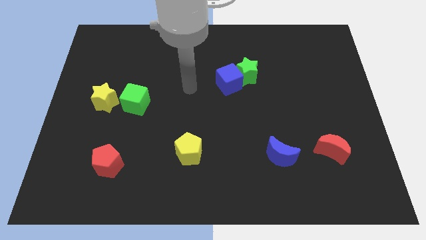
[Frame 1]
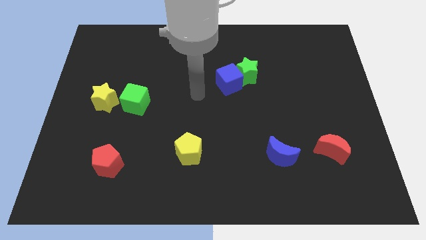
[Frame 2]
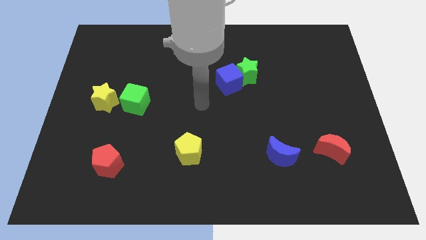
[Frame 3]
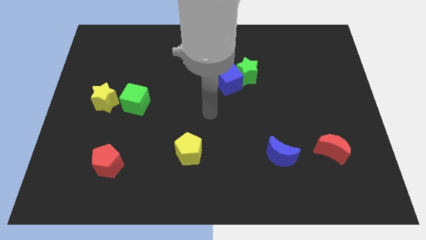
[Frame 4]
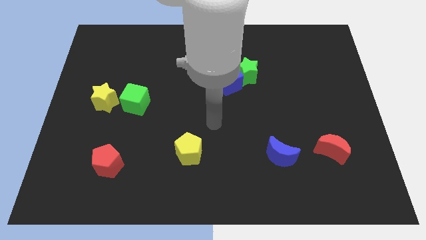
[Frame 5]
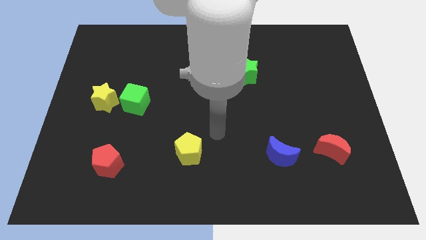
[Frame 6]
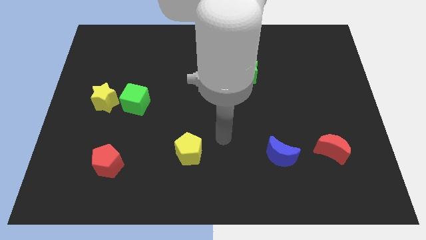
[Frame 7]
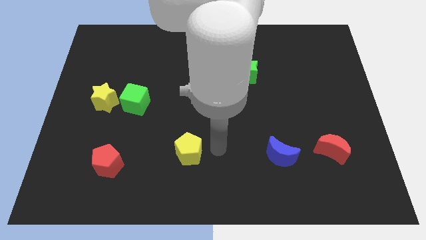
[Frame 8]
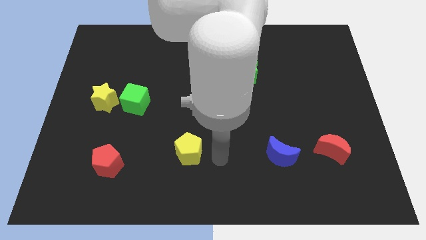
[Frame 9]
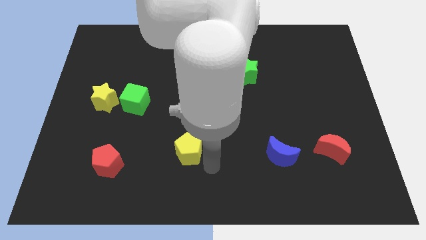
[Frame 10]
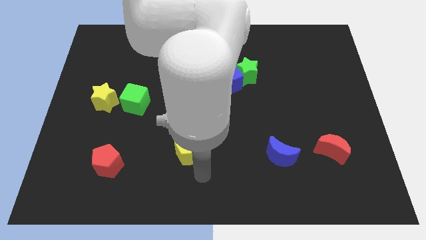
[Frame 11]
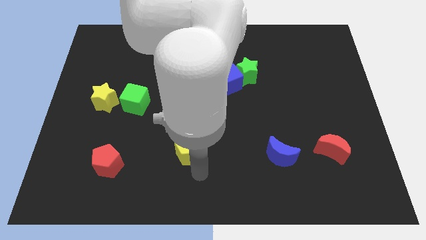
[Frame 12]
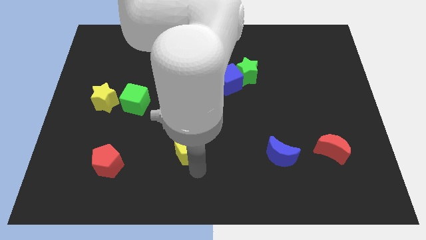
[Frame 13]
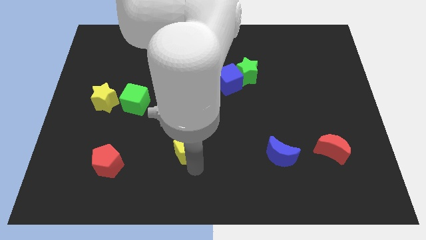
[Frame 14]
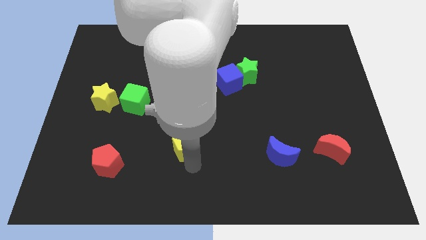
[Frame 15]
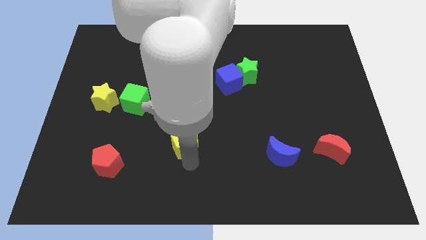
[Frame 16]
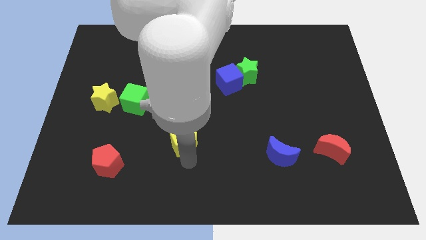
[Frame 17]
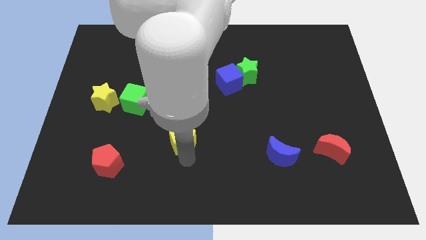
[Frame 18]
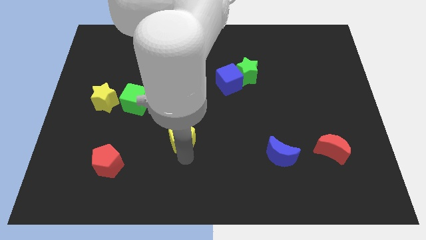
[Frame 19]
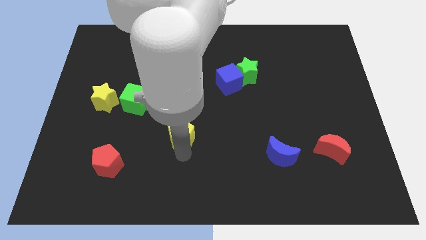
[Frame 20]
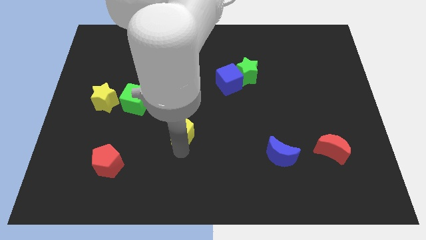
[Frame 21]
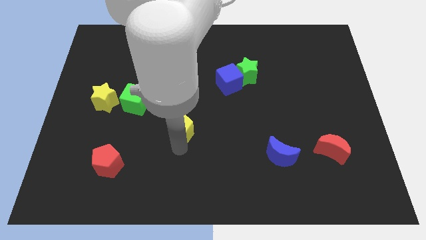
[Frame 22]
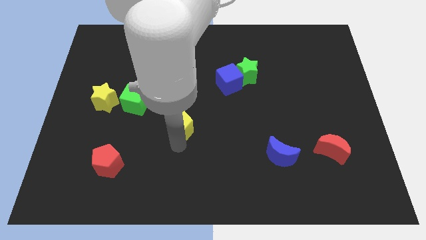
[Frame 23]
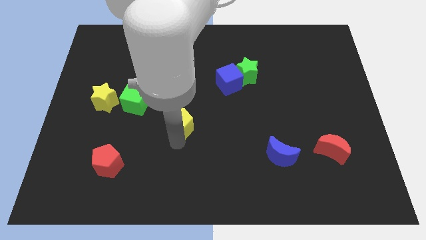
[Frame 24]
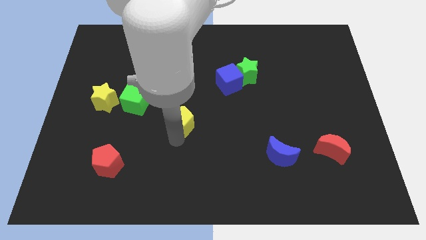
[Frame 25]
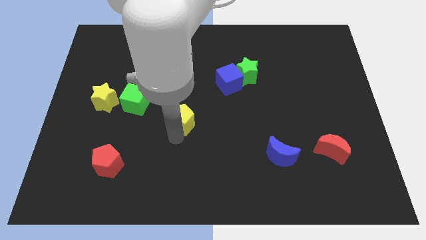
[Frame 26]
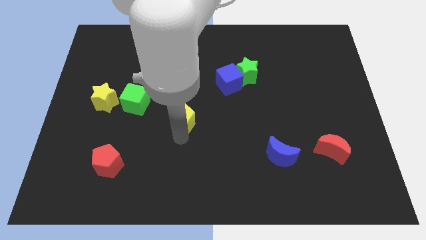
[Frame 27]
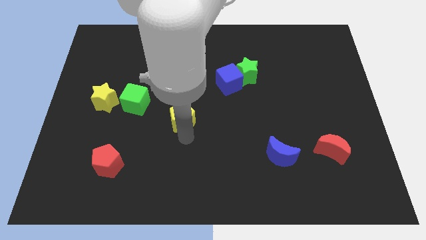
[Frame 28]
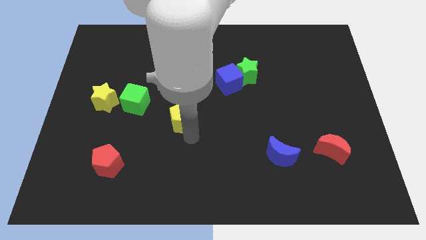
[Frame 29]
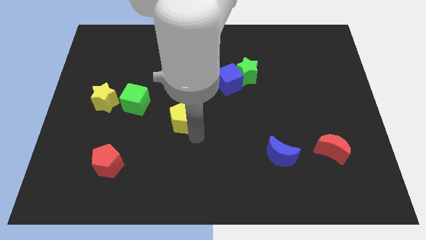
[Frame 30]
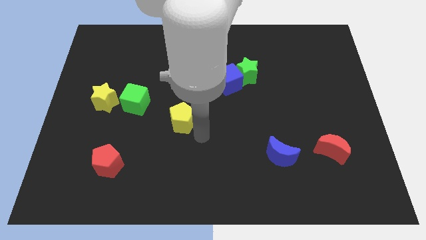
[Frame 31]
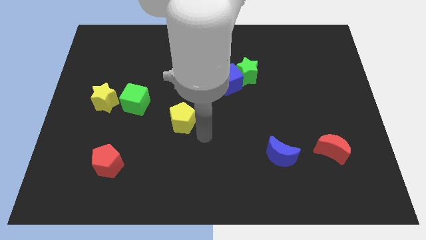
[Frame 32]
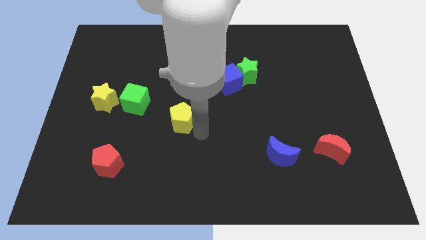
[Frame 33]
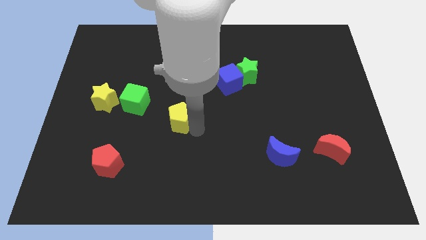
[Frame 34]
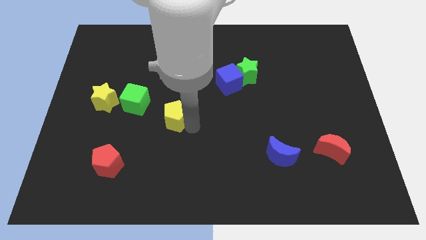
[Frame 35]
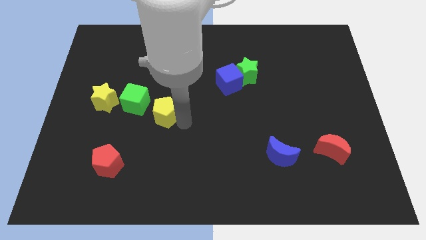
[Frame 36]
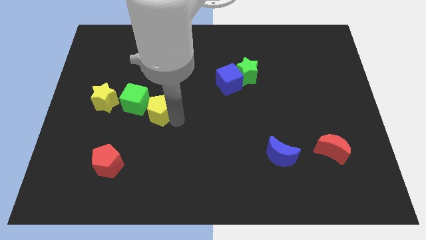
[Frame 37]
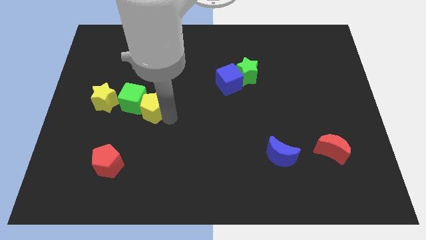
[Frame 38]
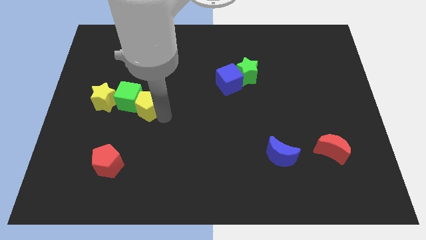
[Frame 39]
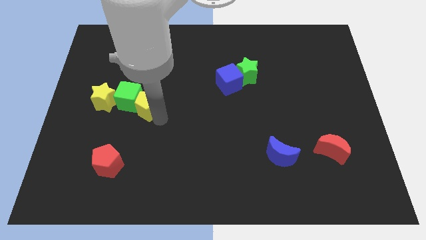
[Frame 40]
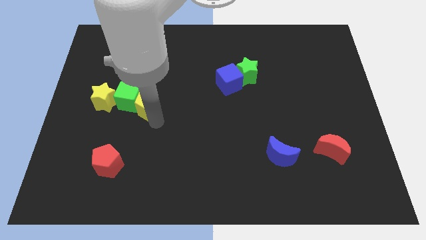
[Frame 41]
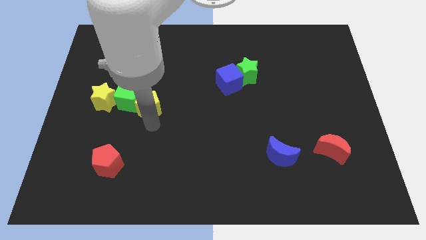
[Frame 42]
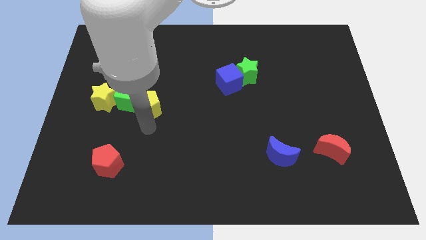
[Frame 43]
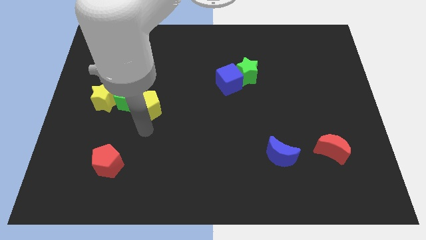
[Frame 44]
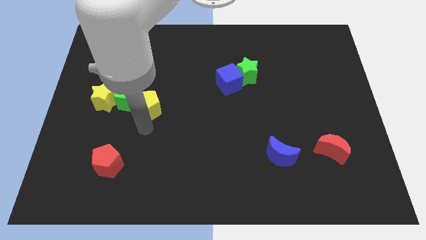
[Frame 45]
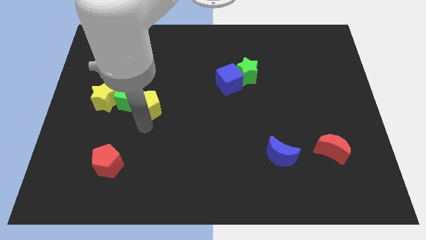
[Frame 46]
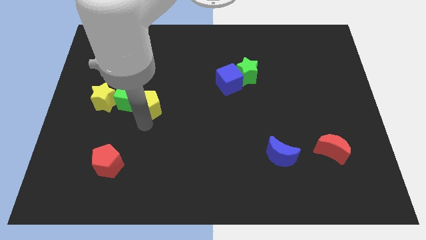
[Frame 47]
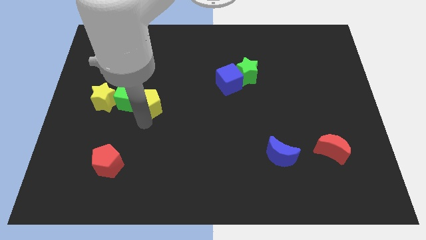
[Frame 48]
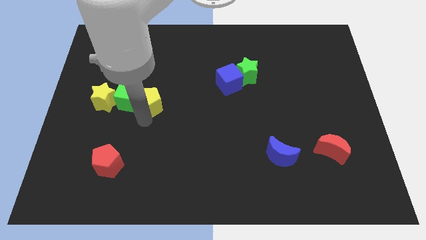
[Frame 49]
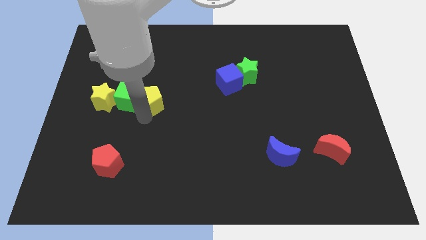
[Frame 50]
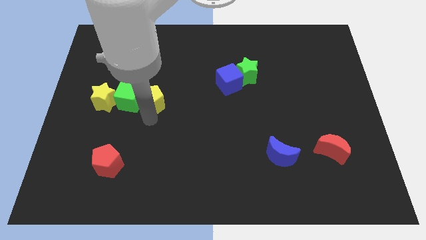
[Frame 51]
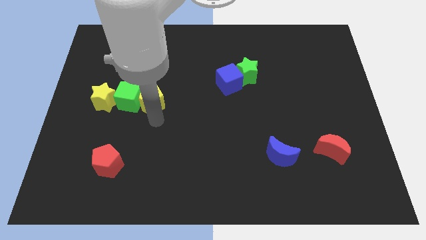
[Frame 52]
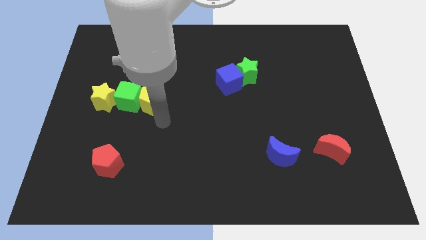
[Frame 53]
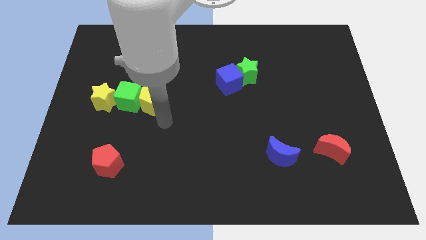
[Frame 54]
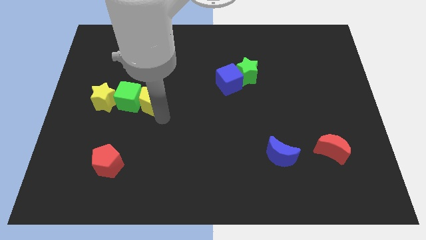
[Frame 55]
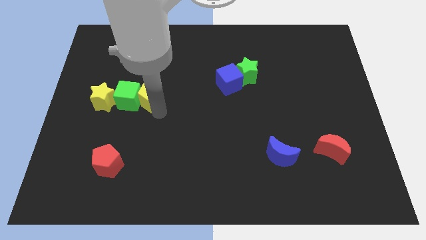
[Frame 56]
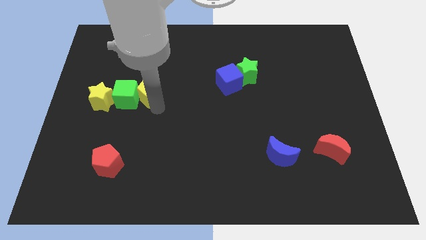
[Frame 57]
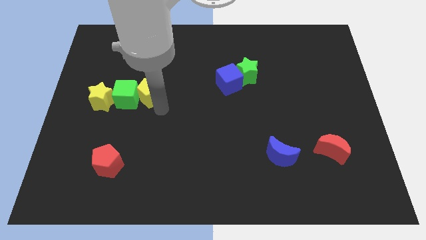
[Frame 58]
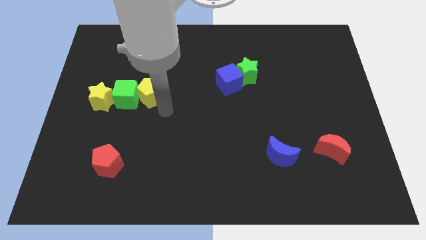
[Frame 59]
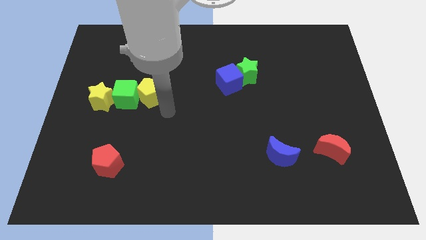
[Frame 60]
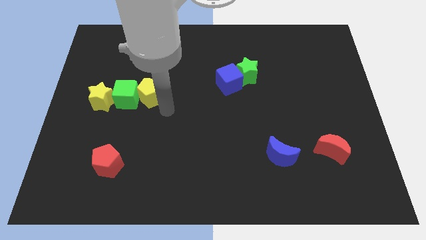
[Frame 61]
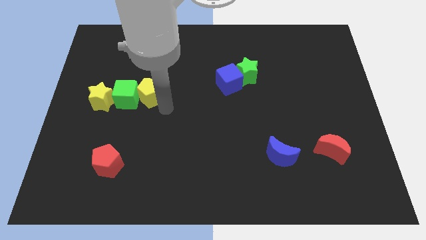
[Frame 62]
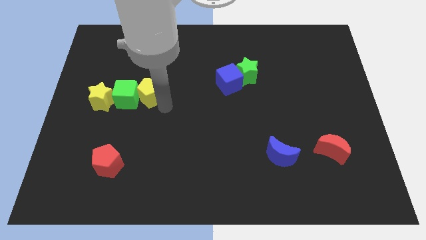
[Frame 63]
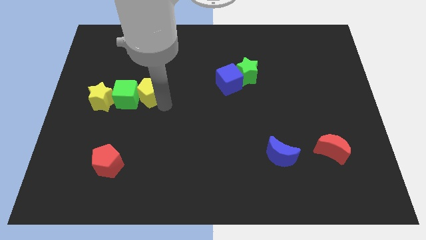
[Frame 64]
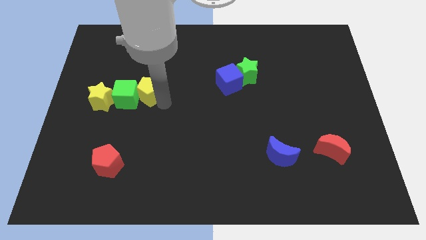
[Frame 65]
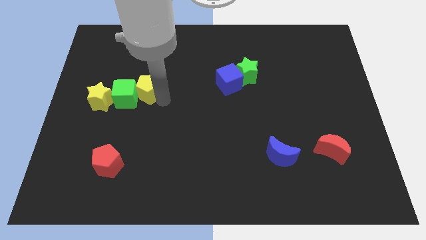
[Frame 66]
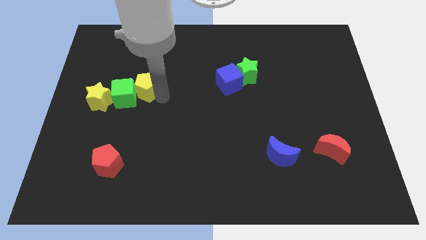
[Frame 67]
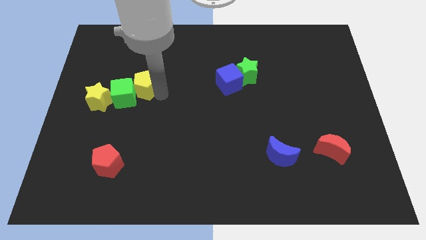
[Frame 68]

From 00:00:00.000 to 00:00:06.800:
push the yellow pentagon up and then left

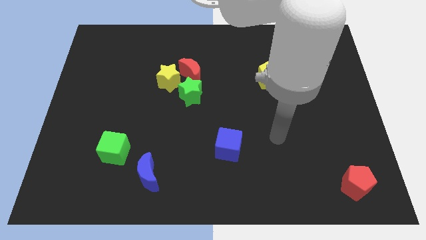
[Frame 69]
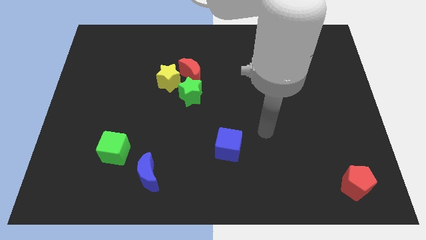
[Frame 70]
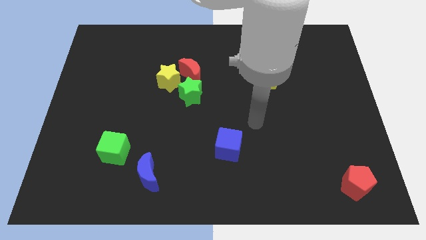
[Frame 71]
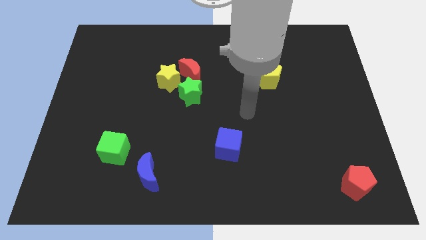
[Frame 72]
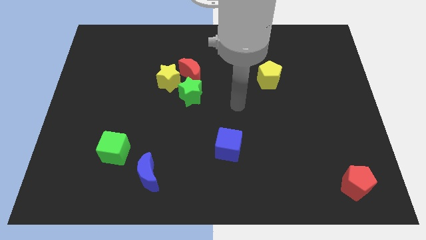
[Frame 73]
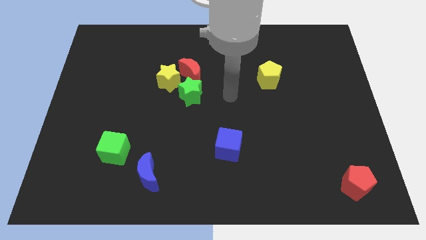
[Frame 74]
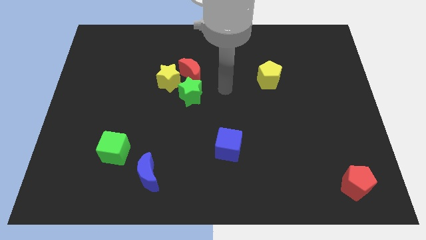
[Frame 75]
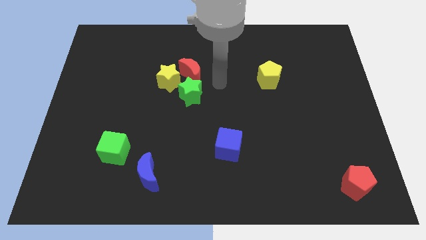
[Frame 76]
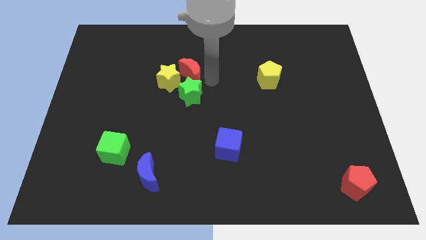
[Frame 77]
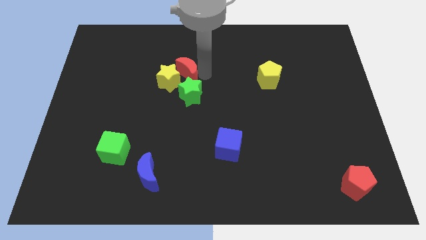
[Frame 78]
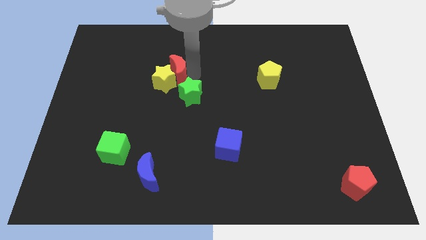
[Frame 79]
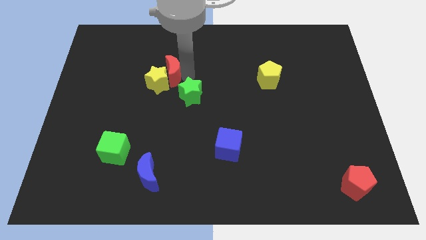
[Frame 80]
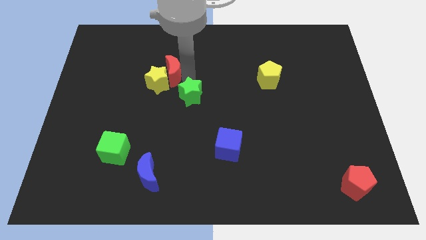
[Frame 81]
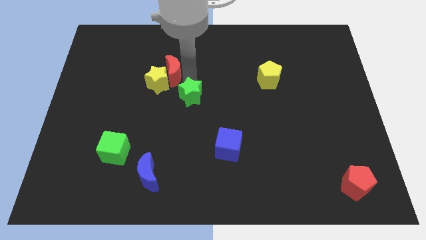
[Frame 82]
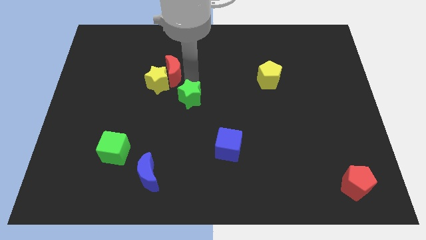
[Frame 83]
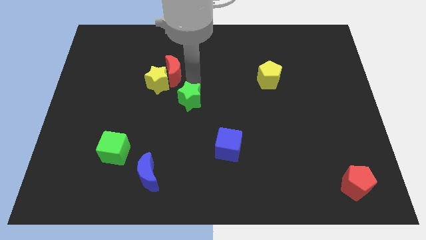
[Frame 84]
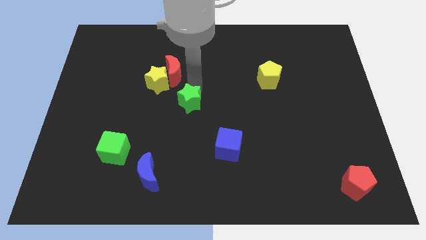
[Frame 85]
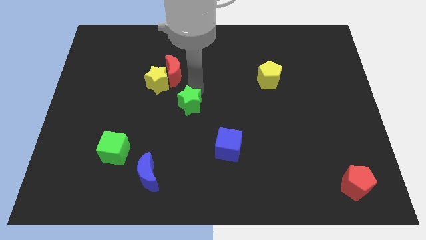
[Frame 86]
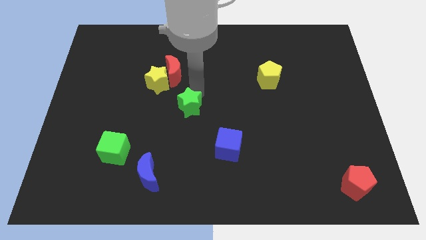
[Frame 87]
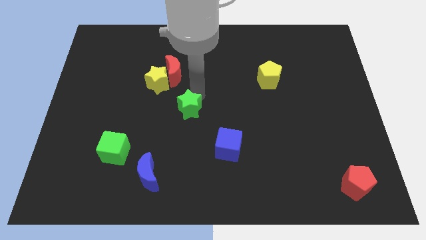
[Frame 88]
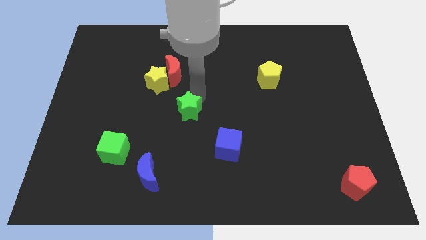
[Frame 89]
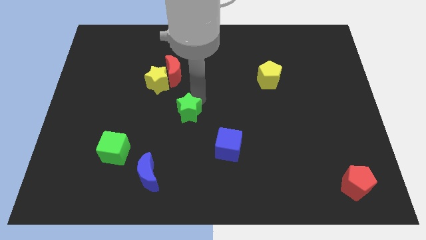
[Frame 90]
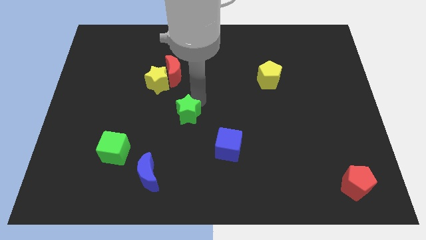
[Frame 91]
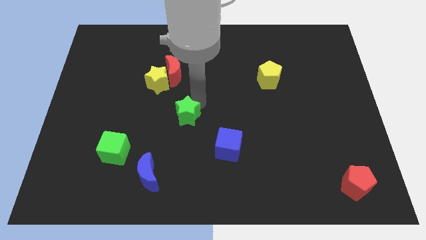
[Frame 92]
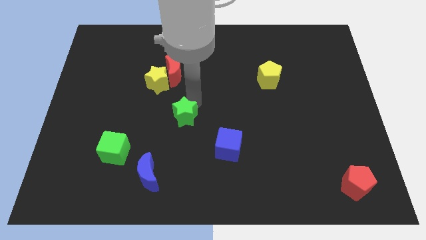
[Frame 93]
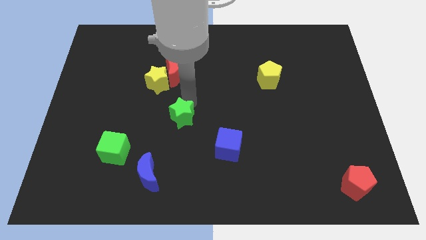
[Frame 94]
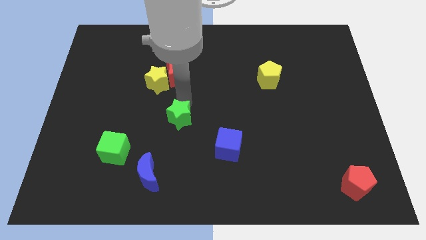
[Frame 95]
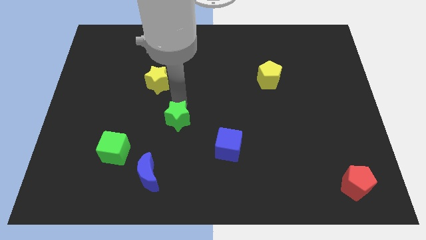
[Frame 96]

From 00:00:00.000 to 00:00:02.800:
move the green star a little downwards
